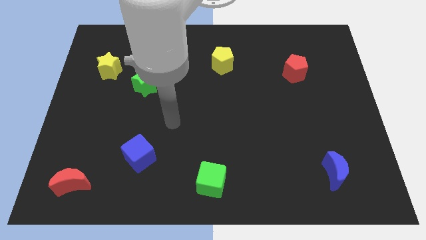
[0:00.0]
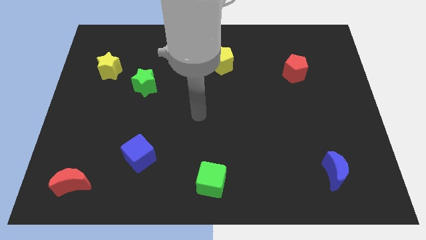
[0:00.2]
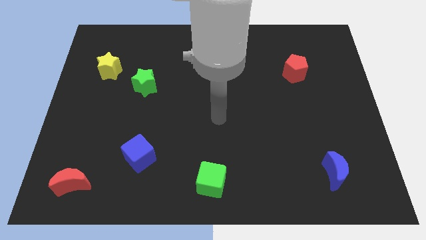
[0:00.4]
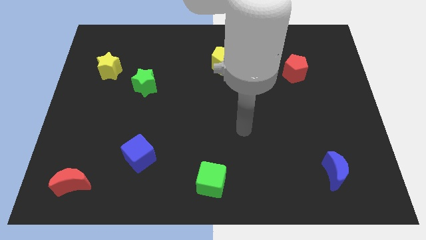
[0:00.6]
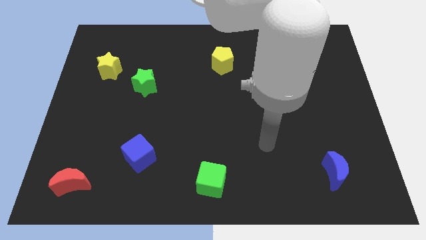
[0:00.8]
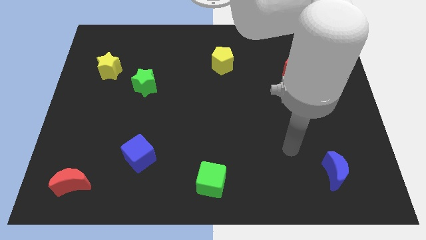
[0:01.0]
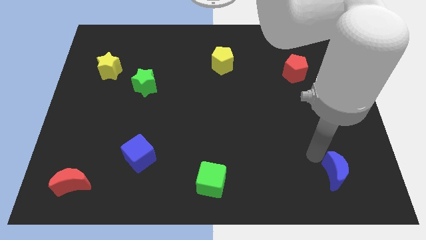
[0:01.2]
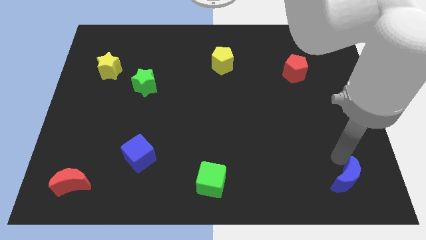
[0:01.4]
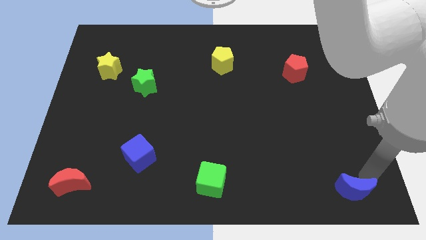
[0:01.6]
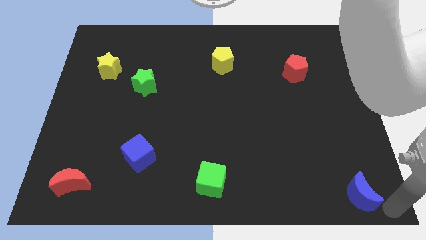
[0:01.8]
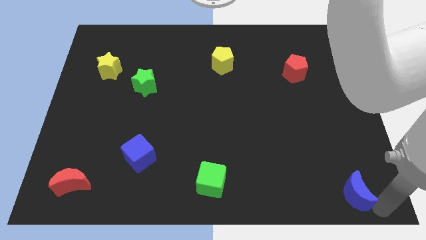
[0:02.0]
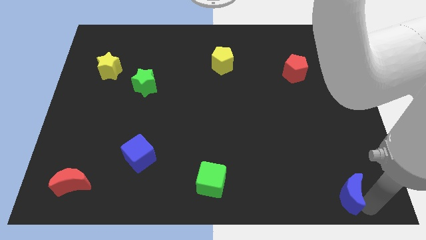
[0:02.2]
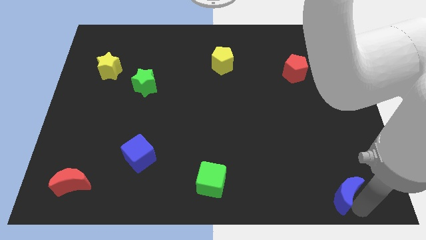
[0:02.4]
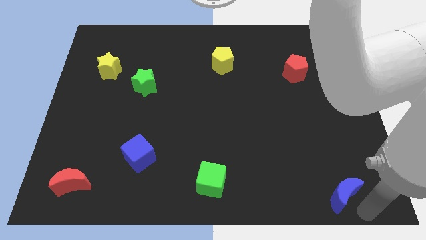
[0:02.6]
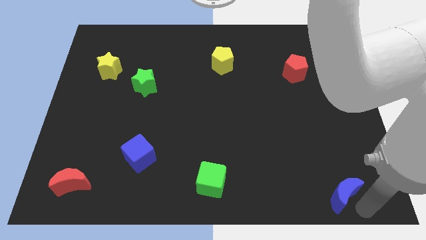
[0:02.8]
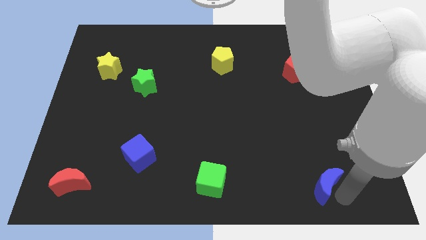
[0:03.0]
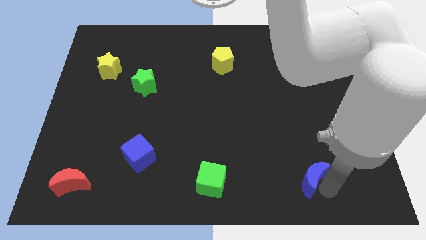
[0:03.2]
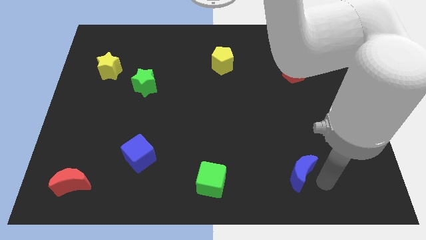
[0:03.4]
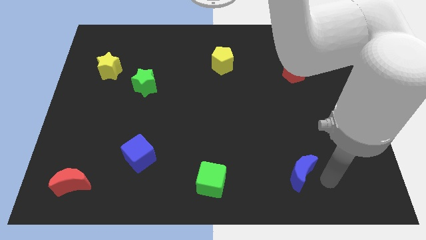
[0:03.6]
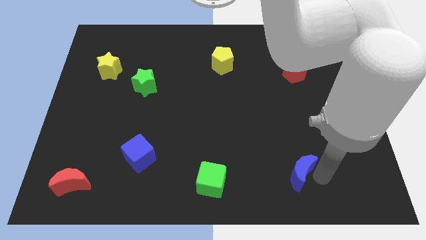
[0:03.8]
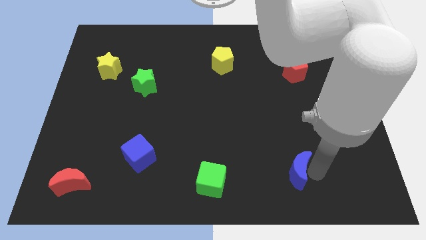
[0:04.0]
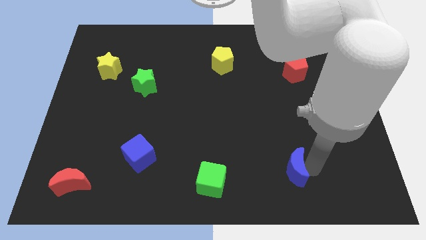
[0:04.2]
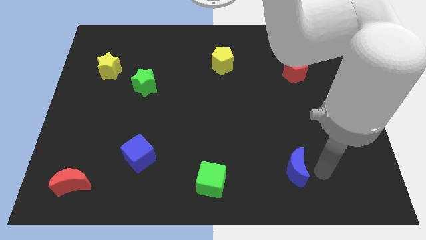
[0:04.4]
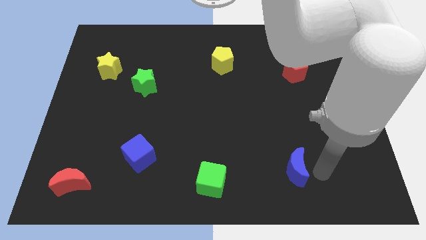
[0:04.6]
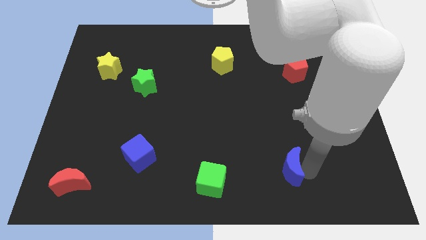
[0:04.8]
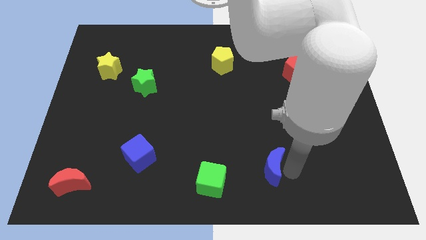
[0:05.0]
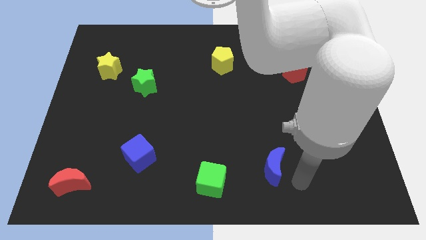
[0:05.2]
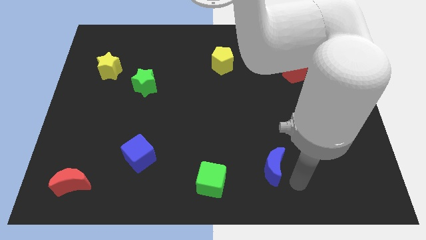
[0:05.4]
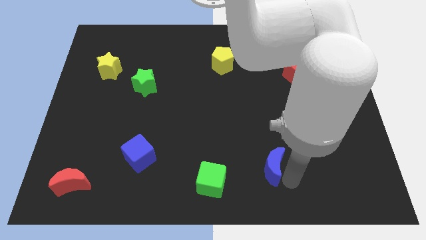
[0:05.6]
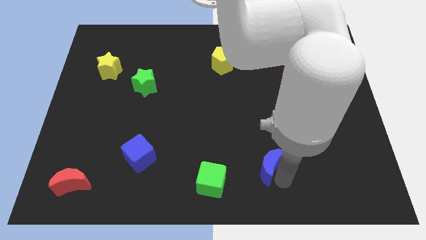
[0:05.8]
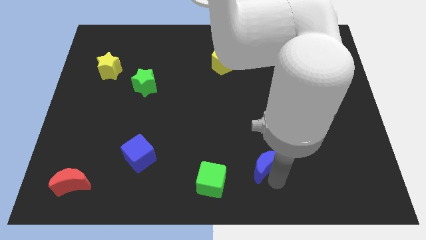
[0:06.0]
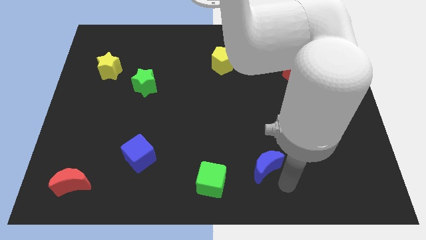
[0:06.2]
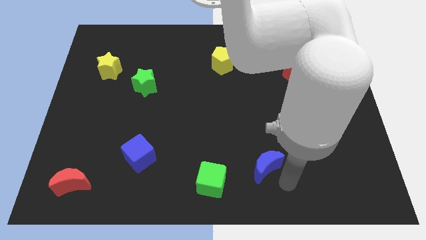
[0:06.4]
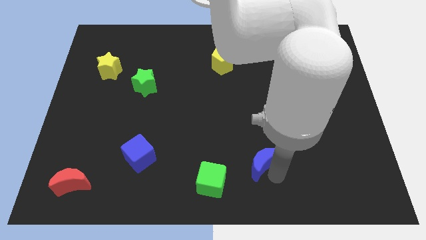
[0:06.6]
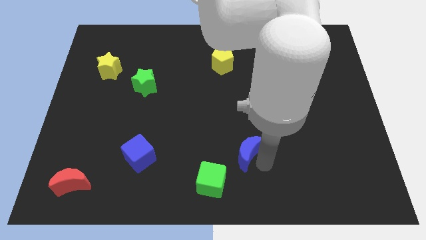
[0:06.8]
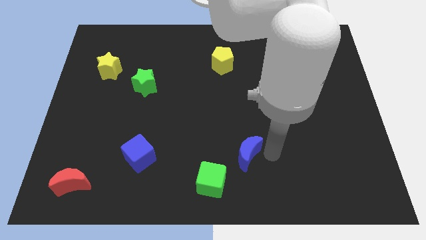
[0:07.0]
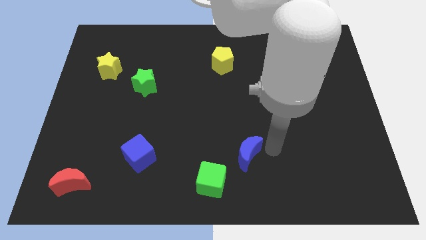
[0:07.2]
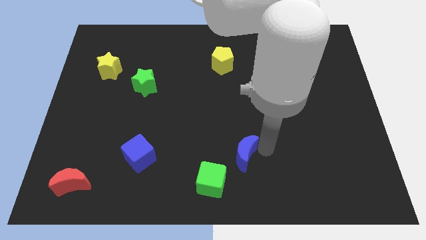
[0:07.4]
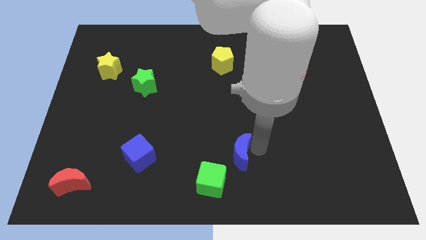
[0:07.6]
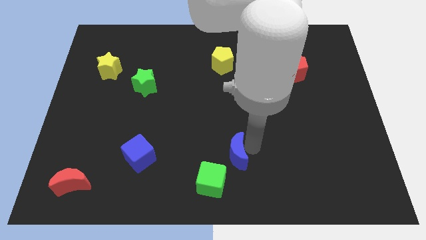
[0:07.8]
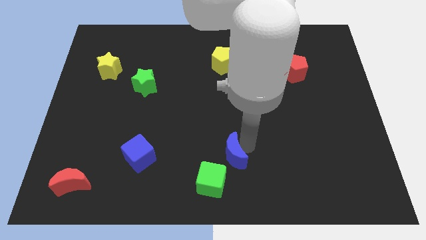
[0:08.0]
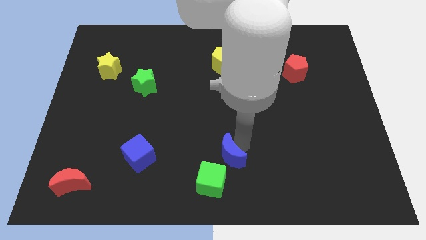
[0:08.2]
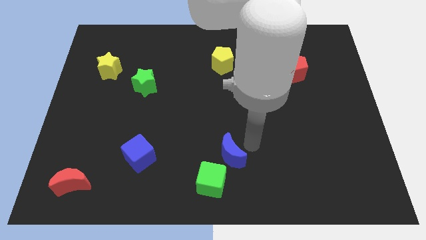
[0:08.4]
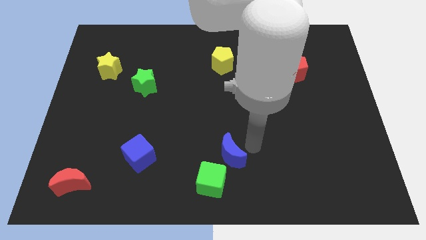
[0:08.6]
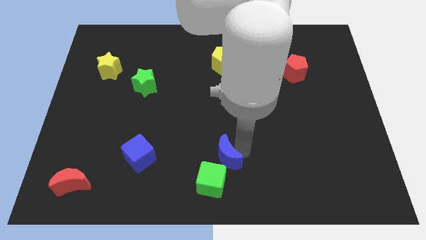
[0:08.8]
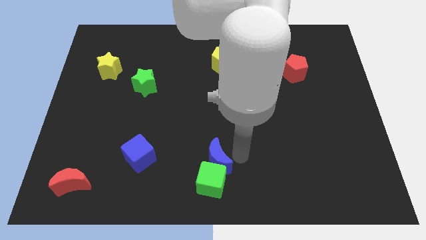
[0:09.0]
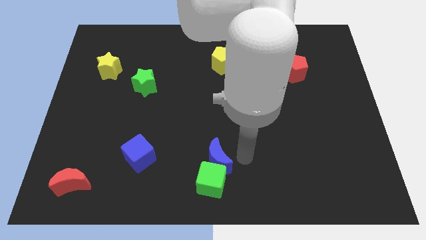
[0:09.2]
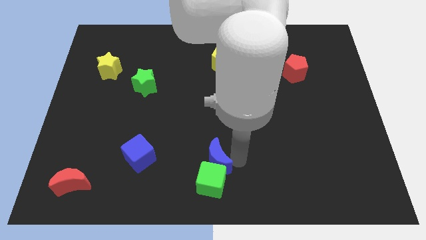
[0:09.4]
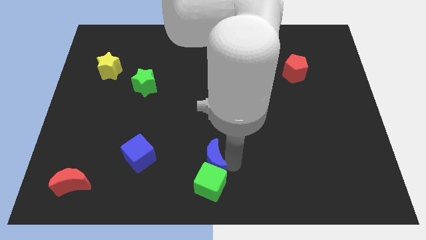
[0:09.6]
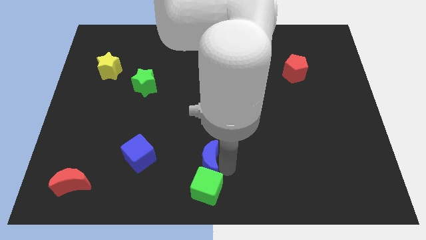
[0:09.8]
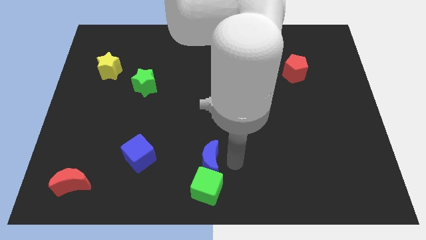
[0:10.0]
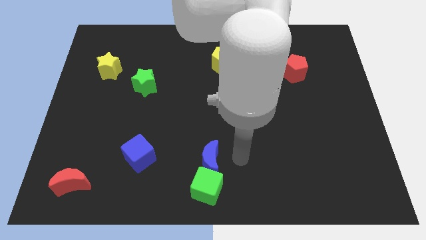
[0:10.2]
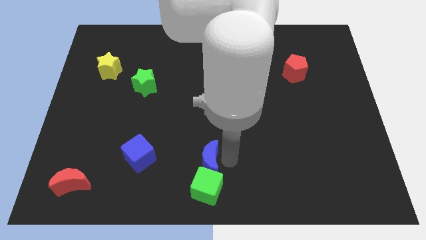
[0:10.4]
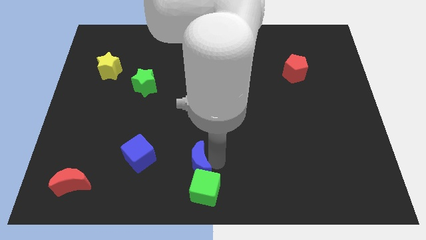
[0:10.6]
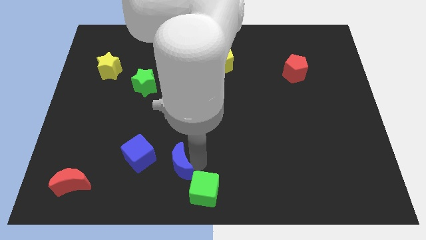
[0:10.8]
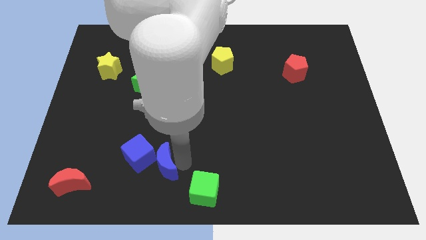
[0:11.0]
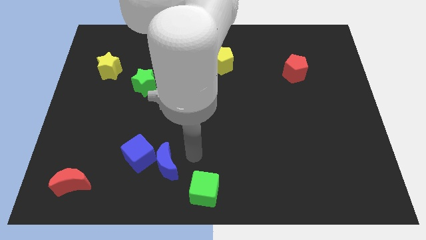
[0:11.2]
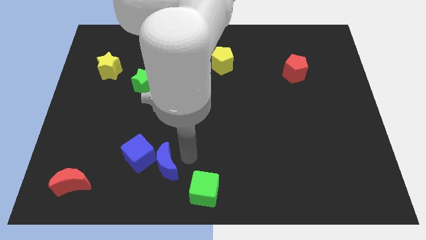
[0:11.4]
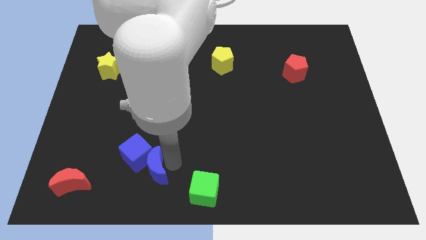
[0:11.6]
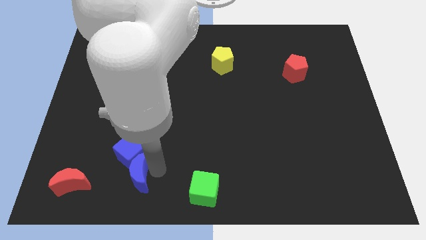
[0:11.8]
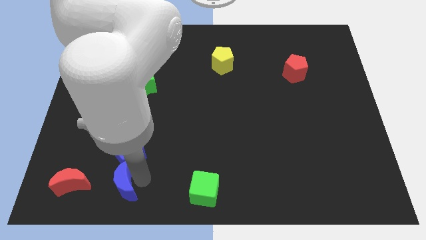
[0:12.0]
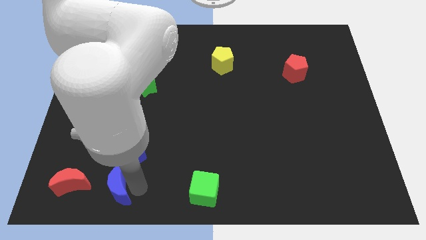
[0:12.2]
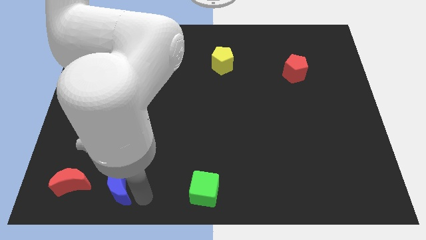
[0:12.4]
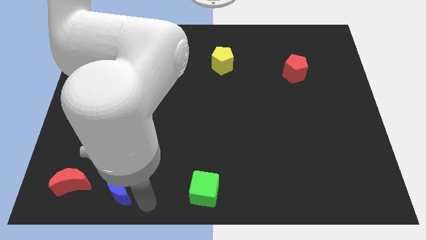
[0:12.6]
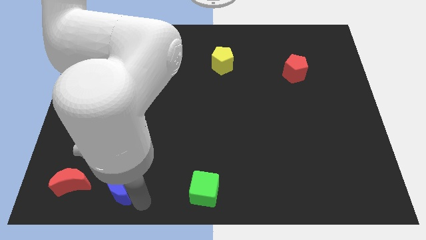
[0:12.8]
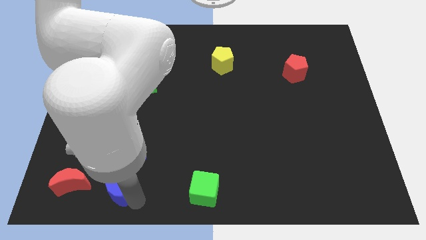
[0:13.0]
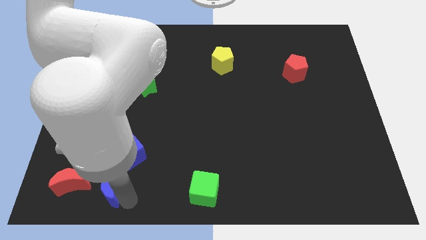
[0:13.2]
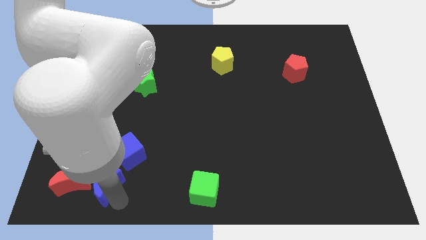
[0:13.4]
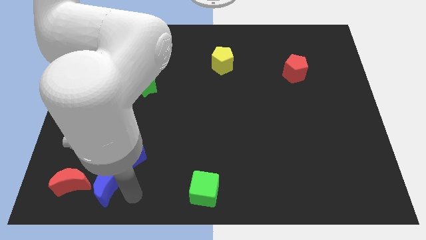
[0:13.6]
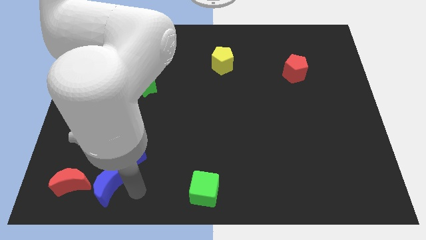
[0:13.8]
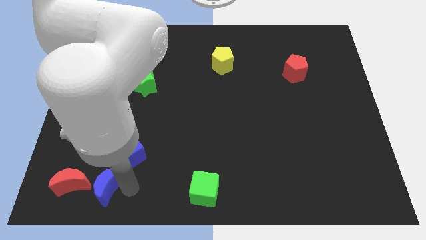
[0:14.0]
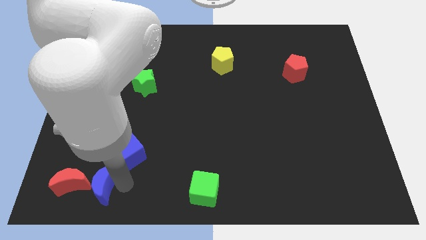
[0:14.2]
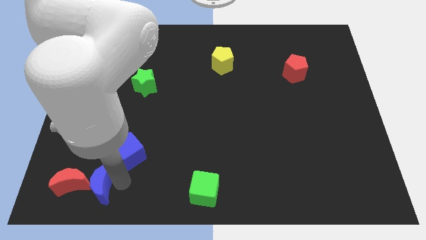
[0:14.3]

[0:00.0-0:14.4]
put the blue moon next to the red moon
